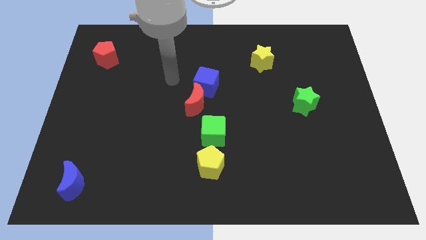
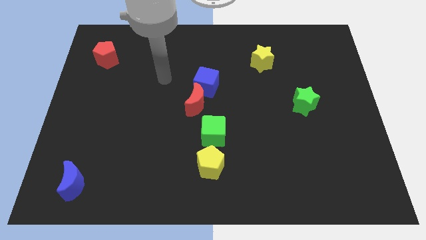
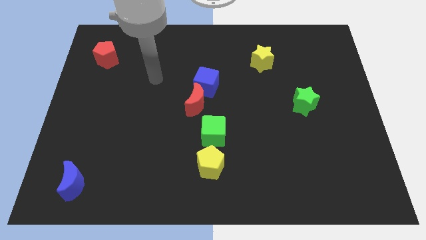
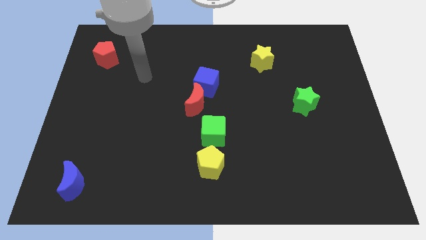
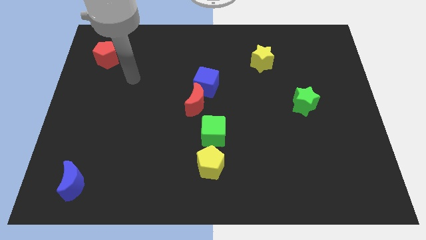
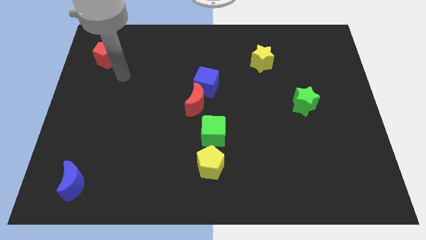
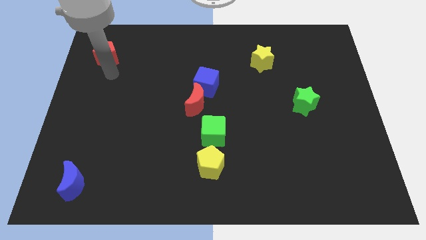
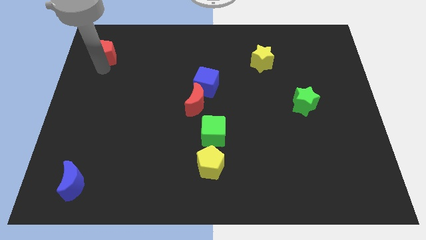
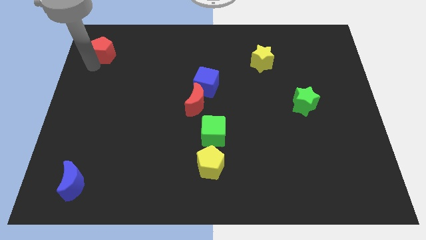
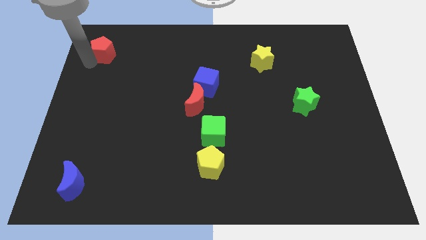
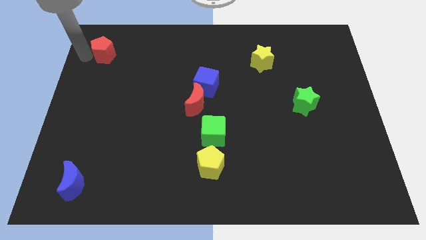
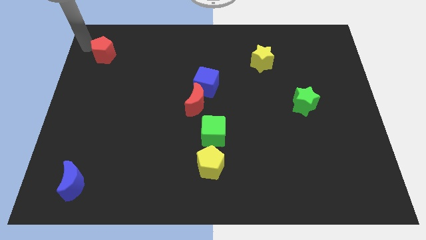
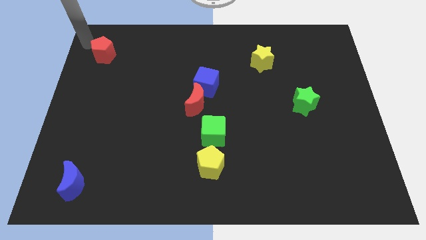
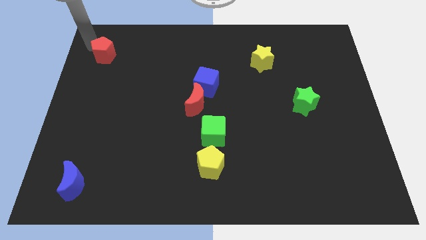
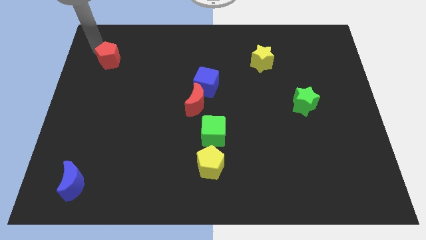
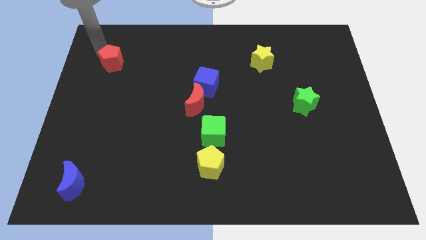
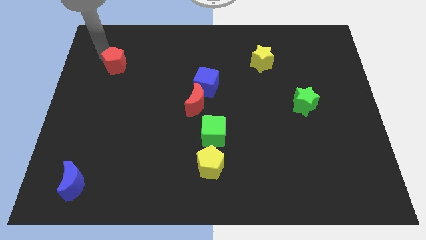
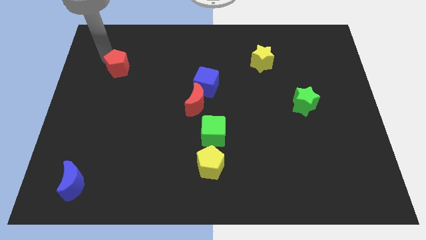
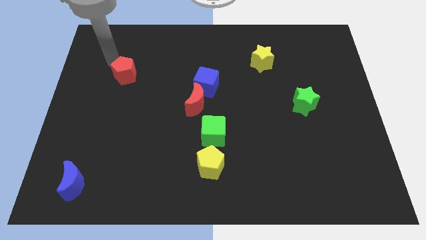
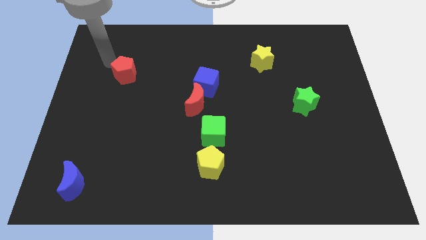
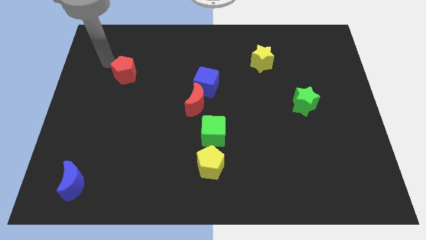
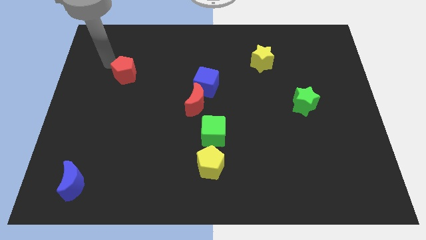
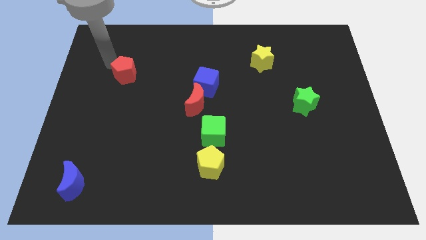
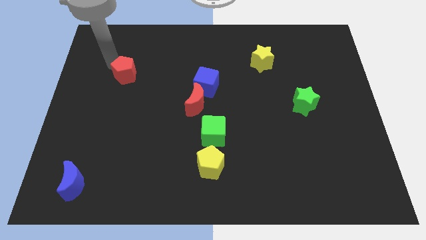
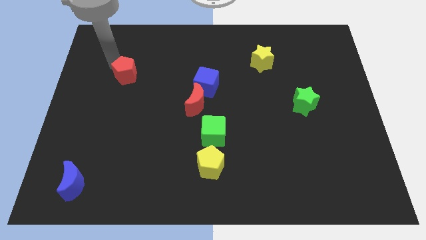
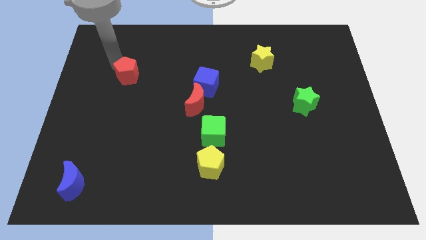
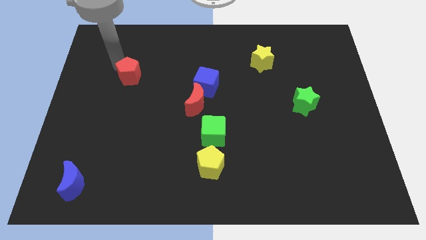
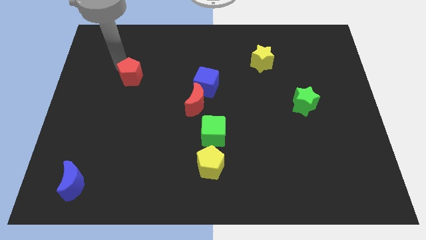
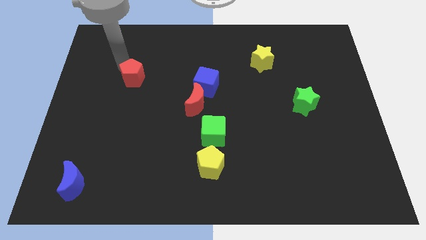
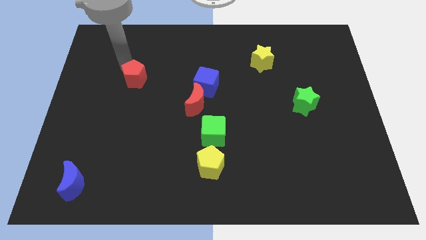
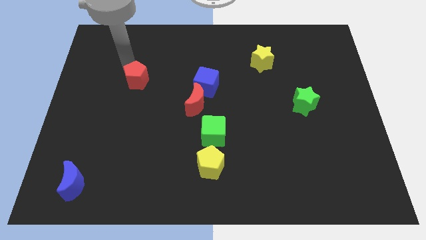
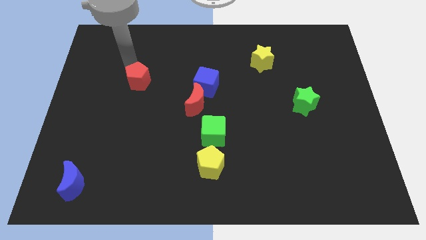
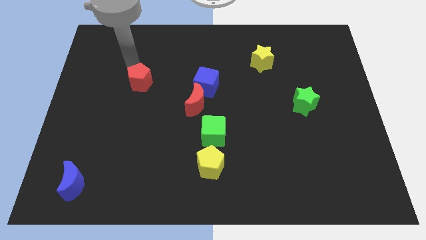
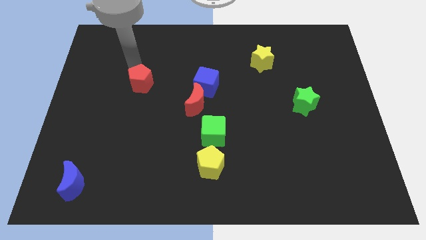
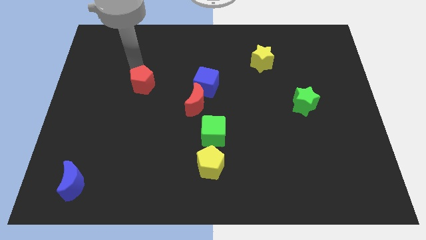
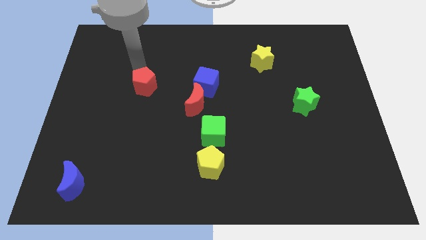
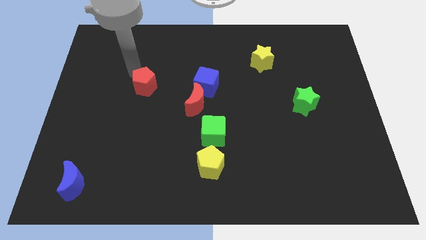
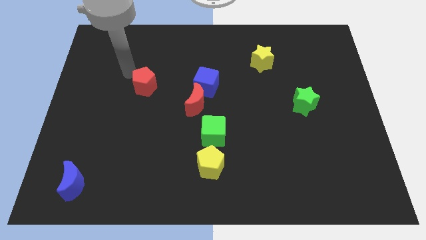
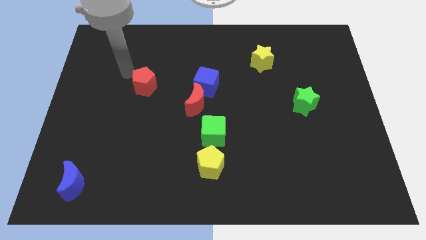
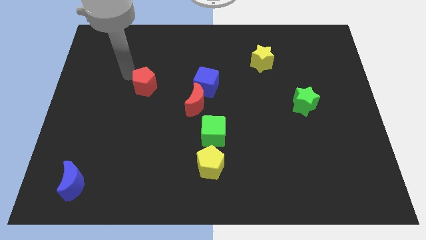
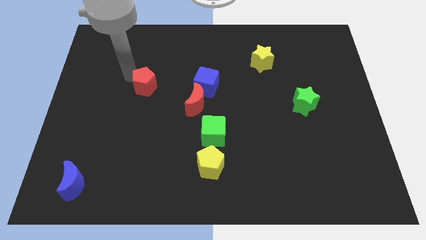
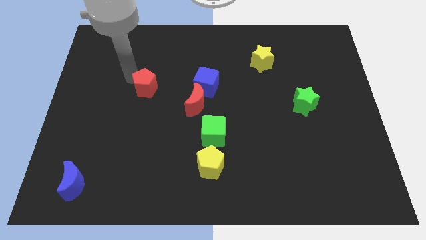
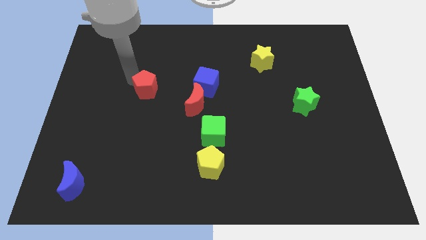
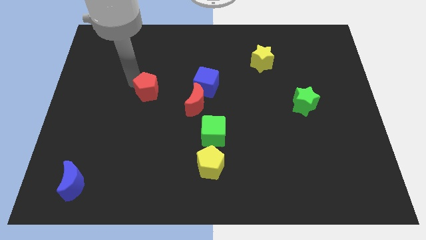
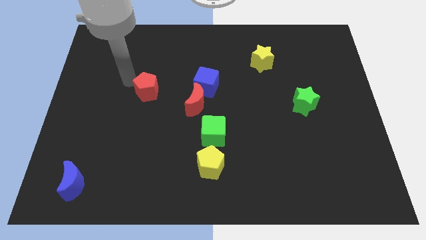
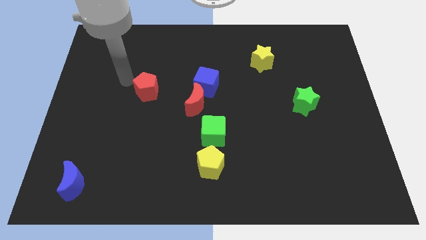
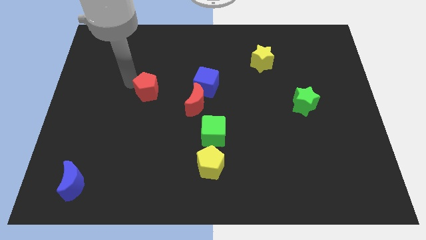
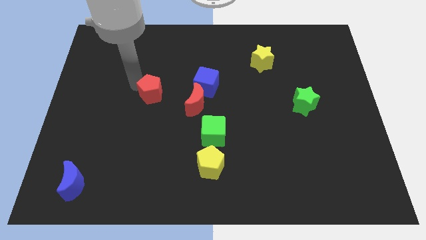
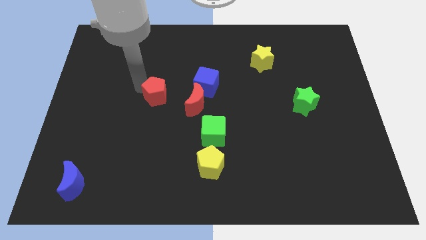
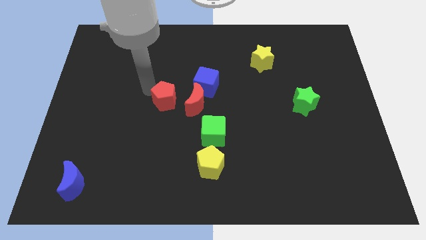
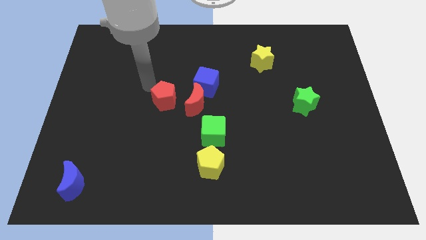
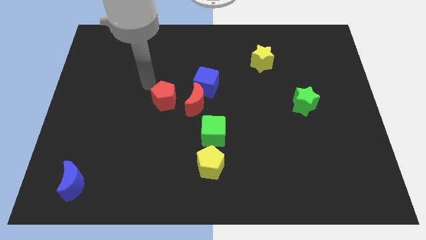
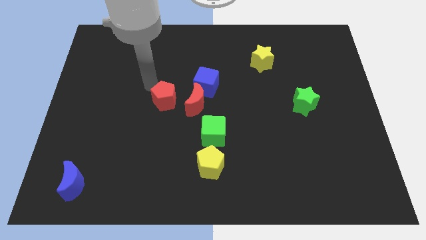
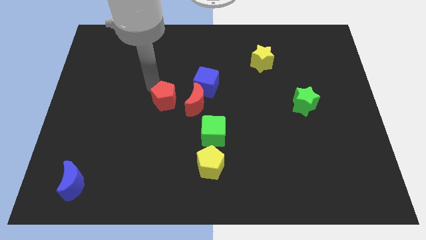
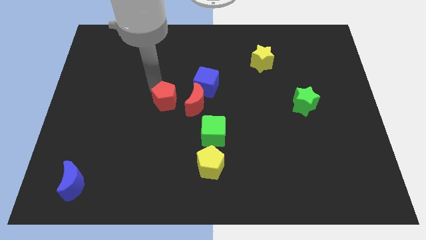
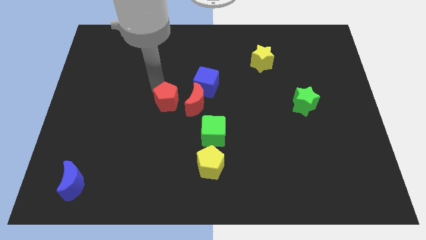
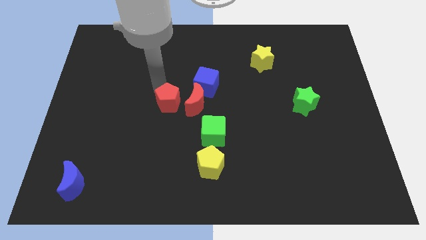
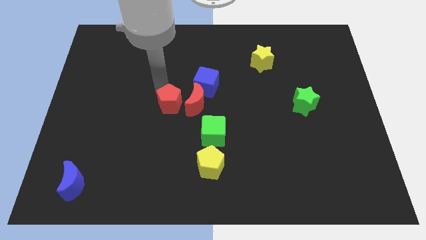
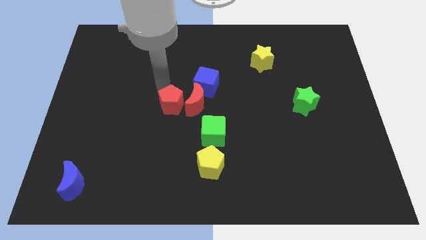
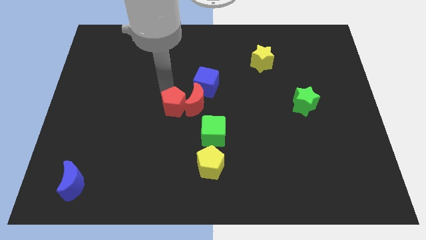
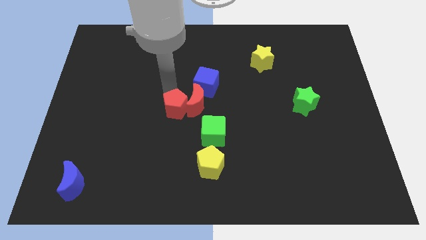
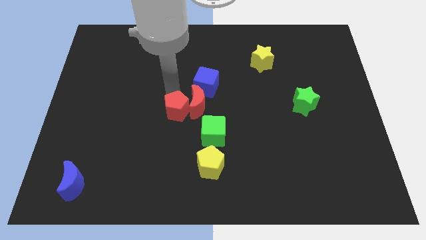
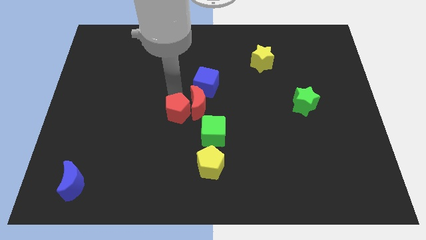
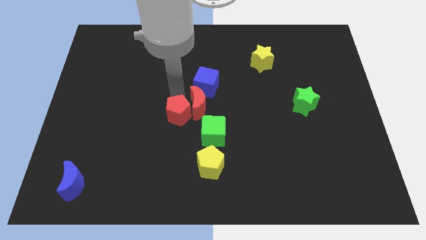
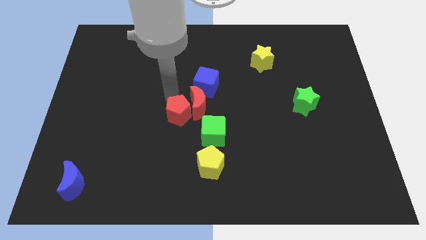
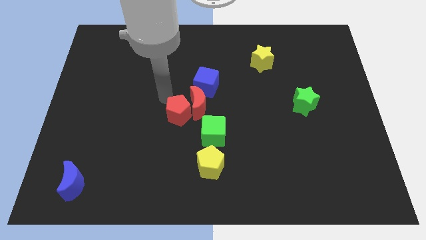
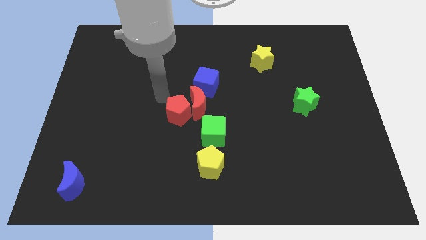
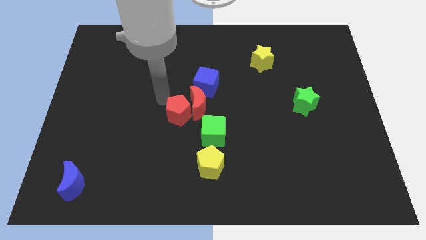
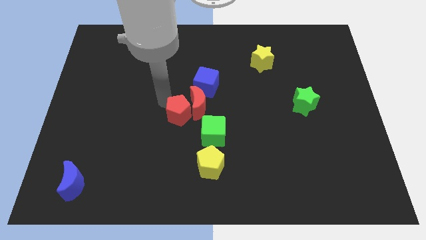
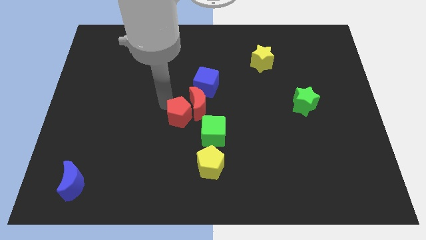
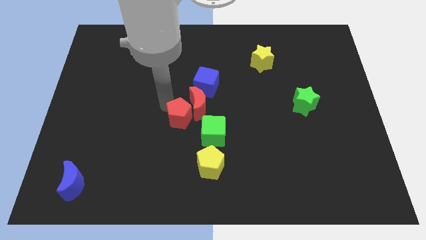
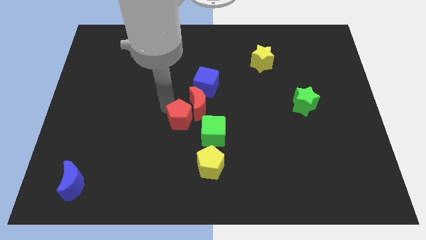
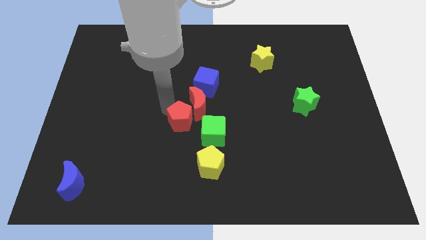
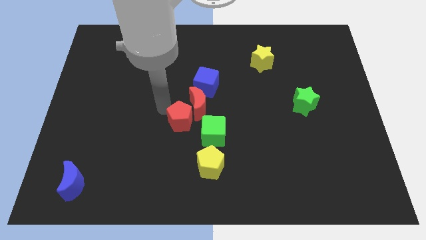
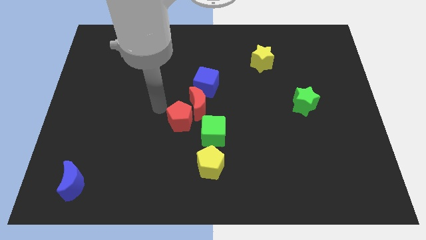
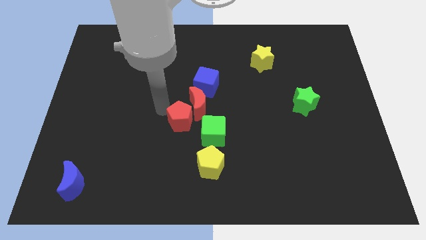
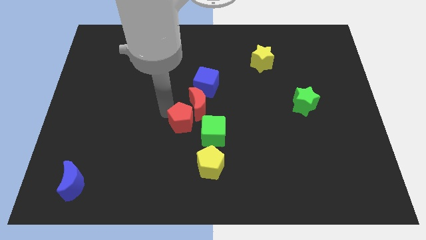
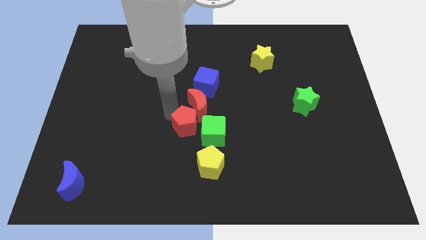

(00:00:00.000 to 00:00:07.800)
slide the red pentagon below the blue cube
